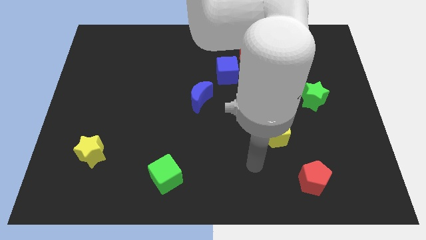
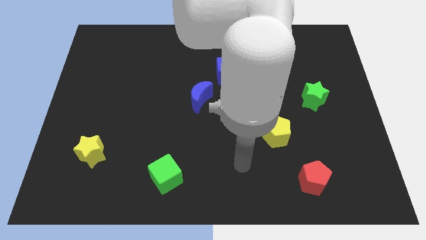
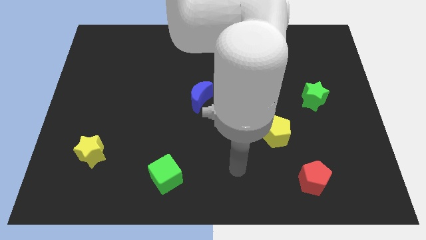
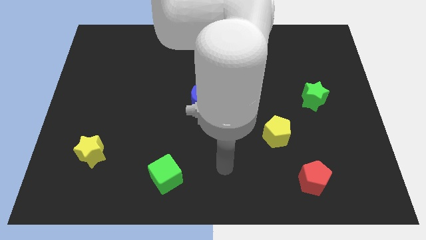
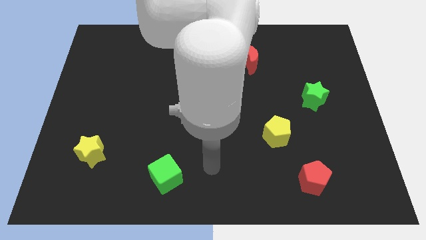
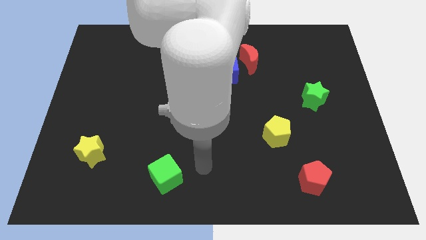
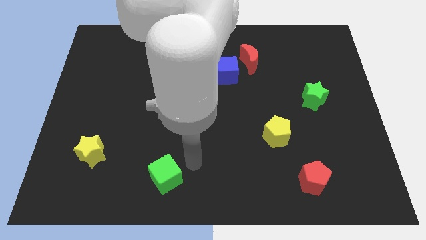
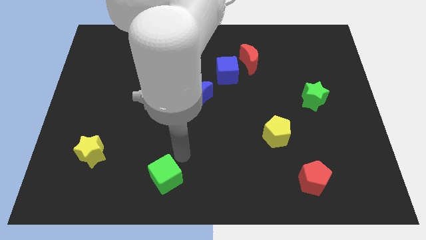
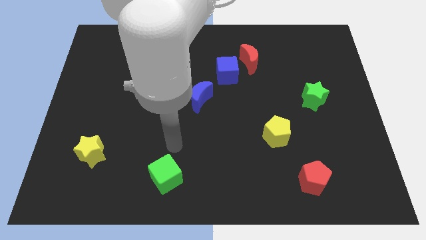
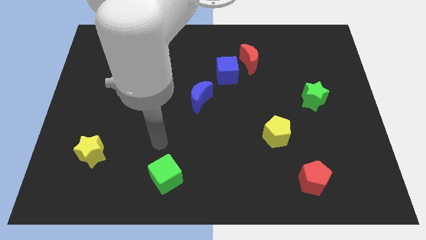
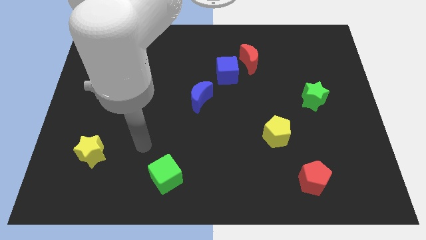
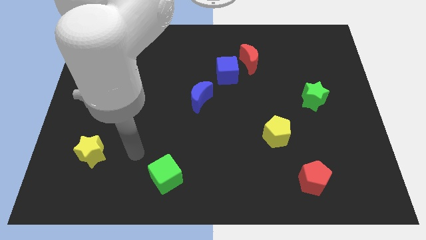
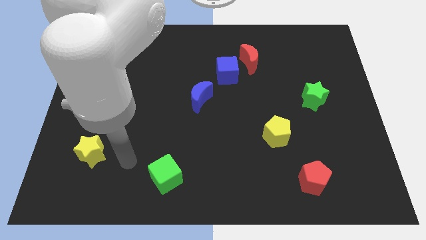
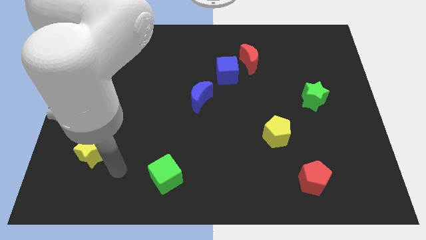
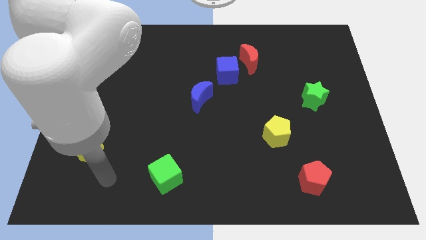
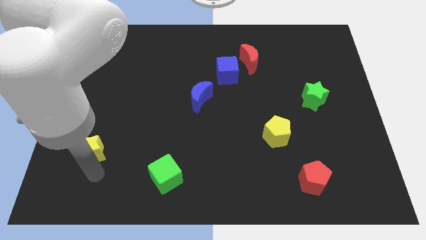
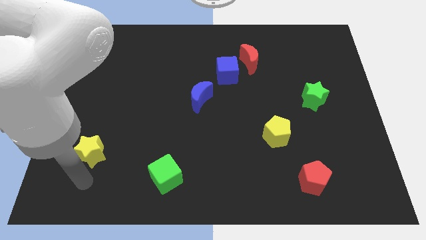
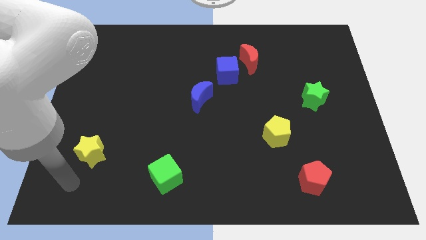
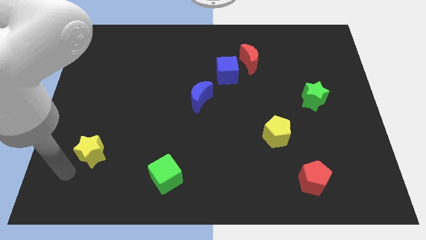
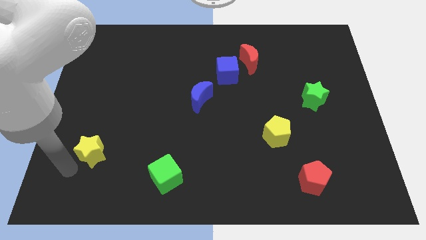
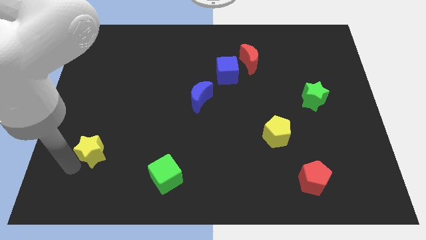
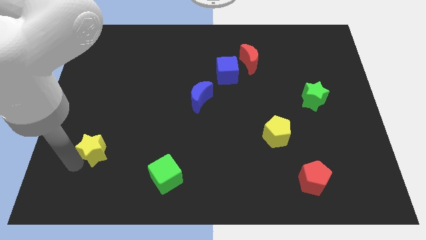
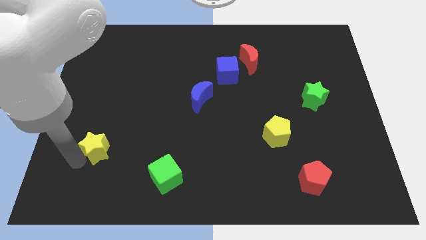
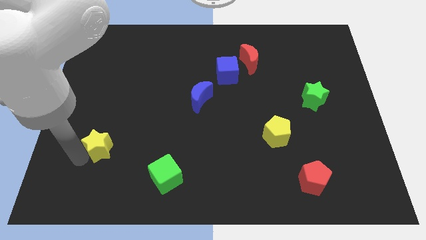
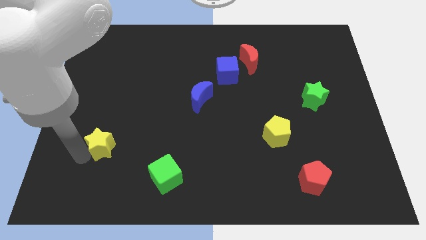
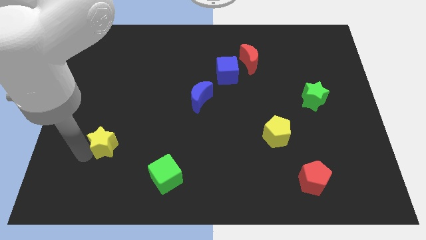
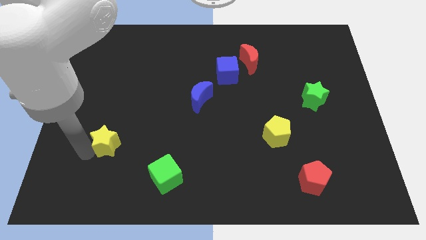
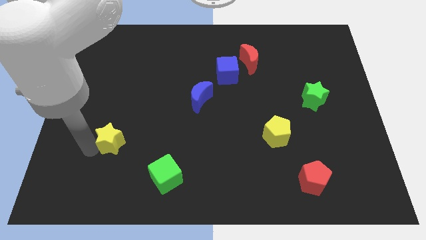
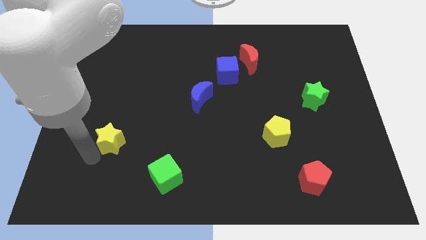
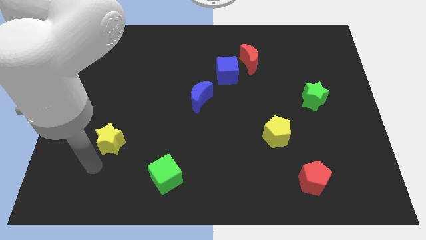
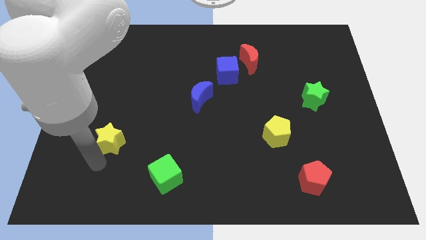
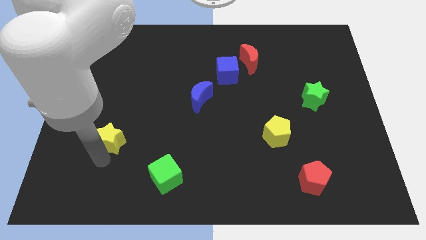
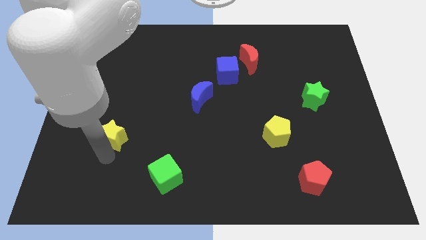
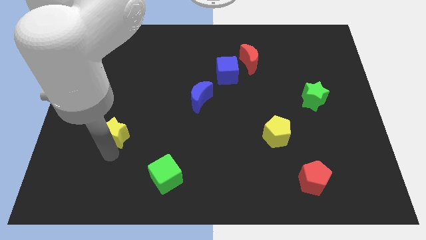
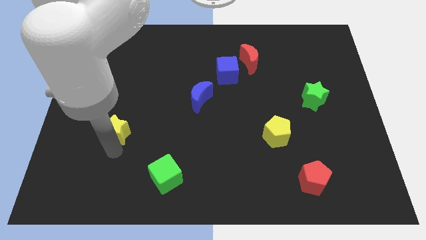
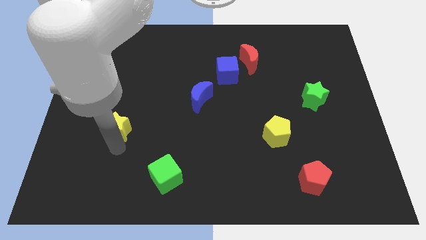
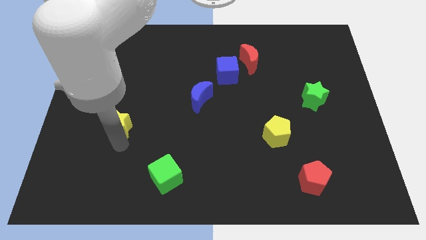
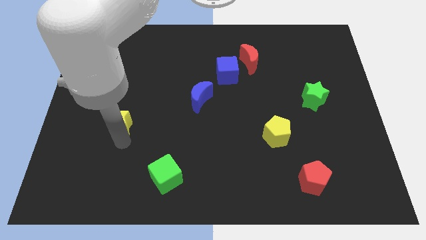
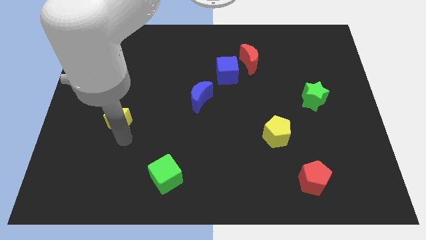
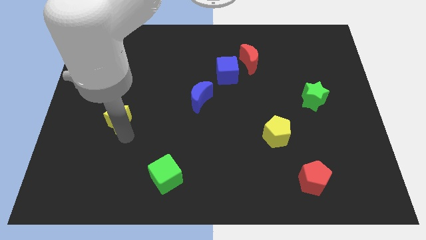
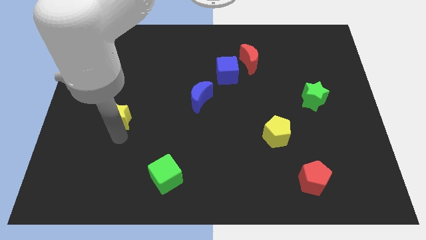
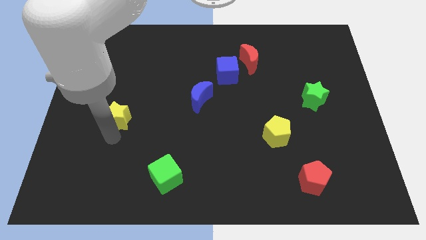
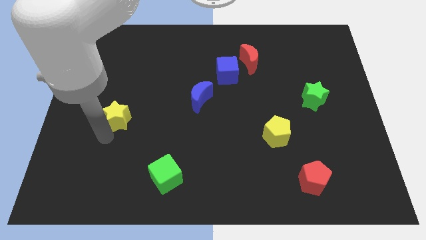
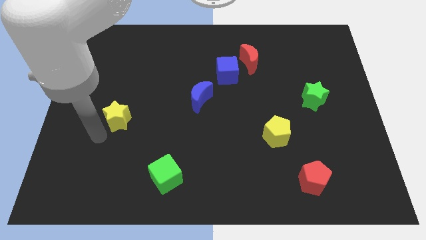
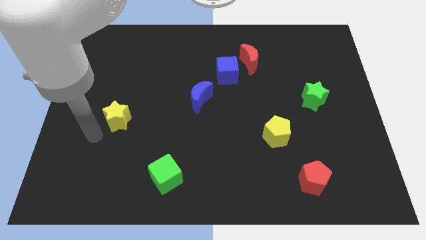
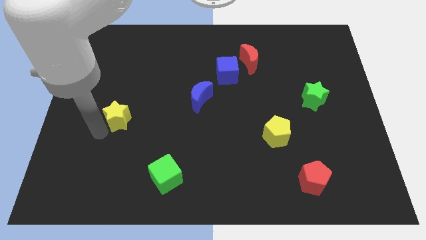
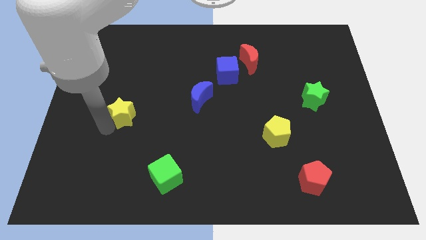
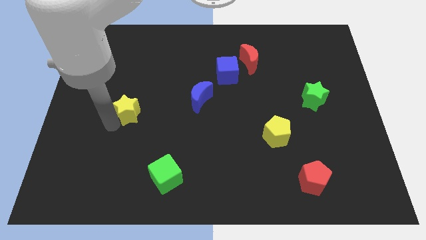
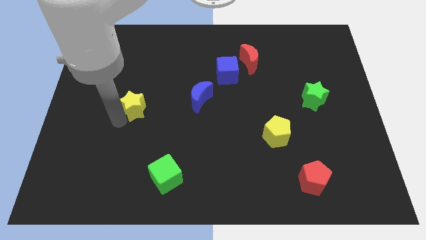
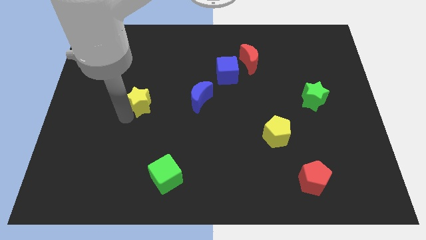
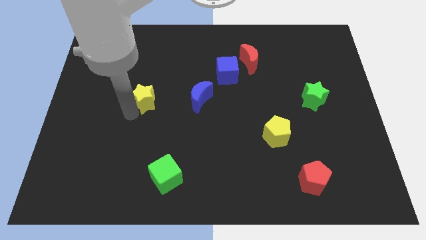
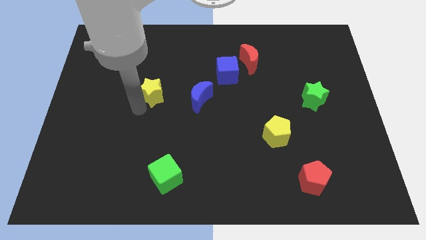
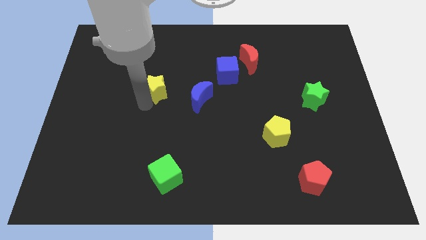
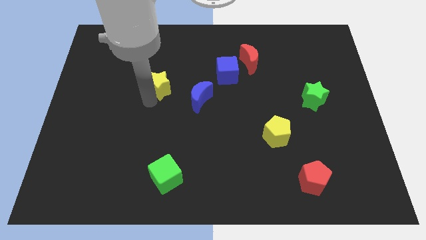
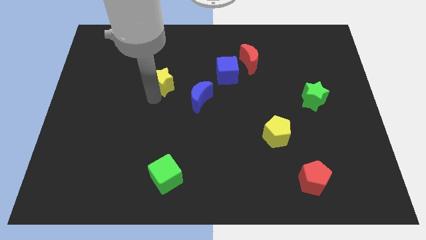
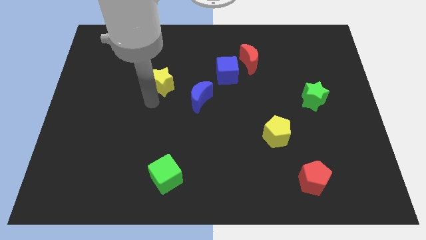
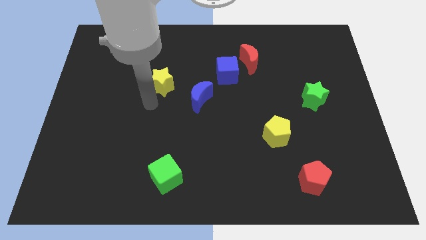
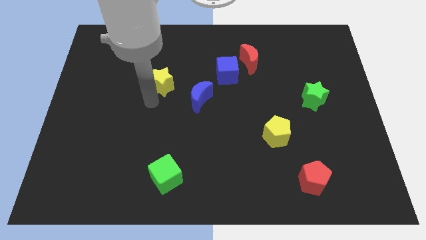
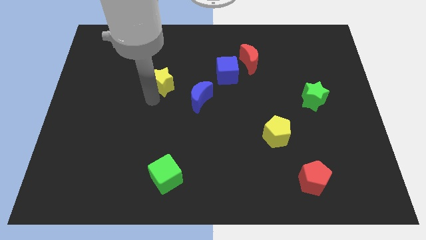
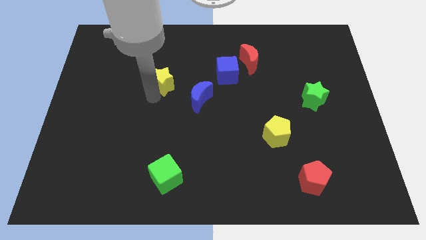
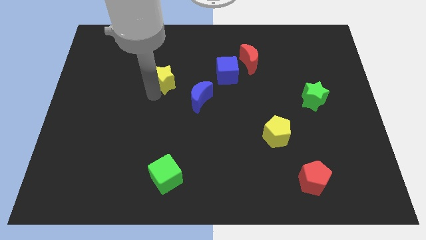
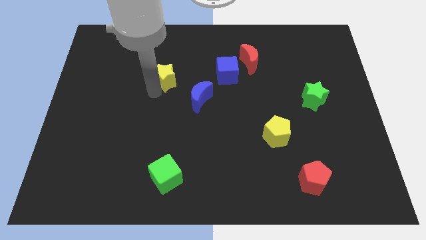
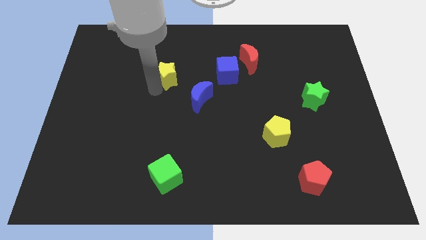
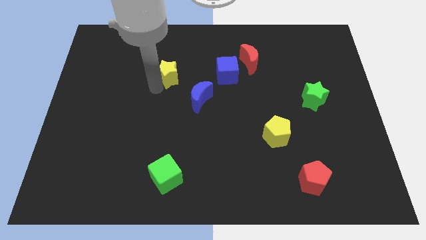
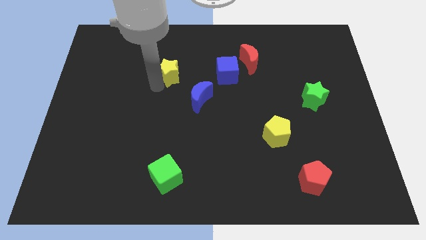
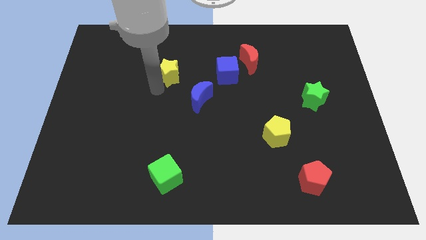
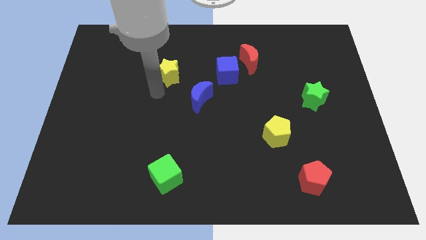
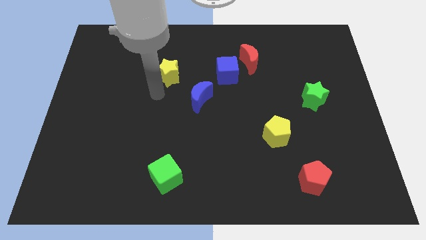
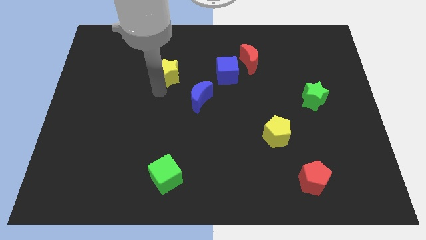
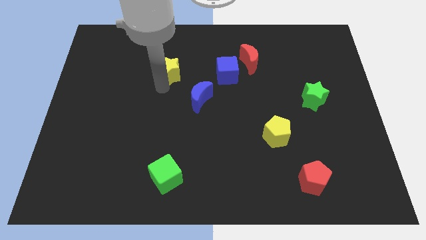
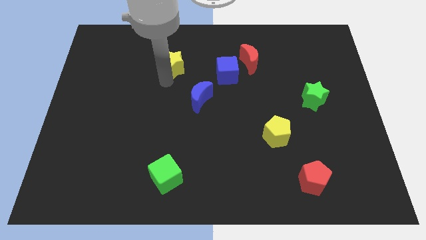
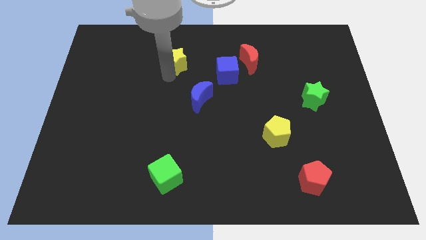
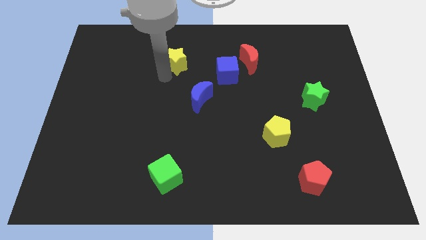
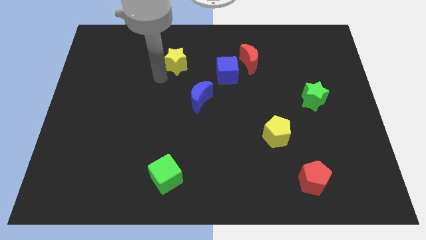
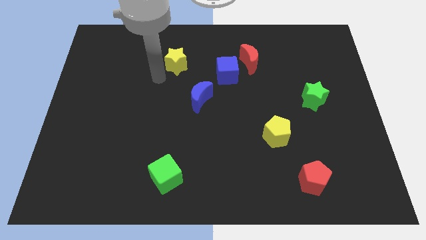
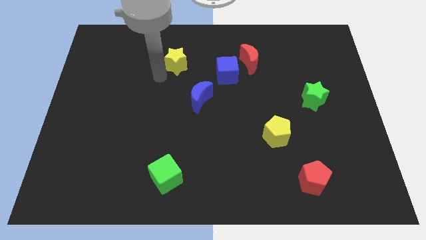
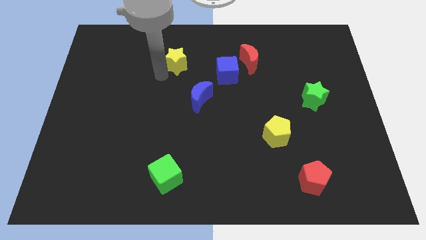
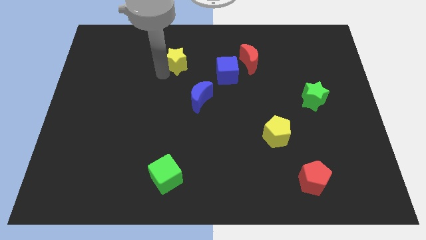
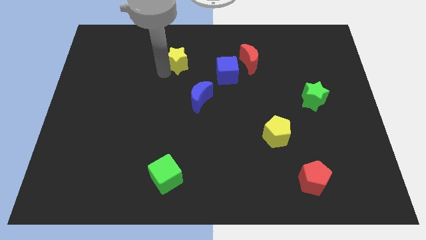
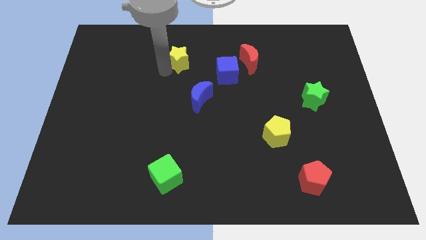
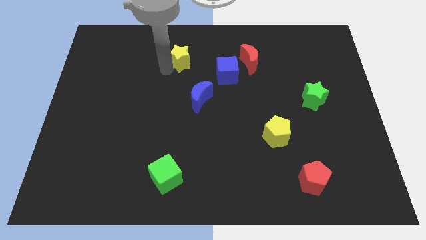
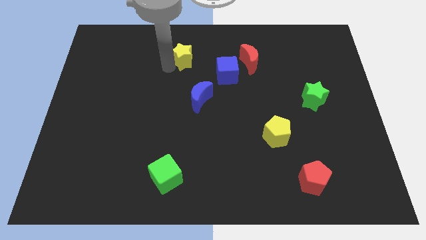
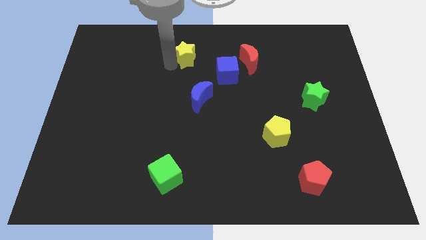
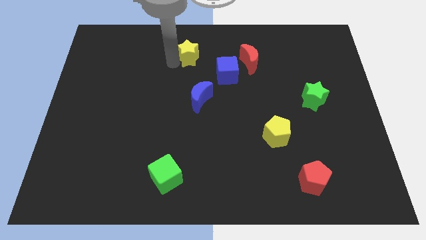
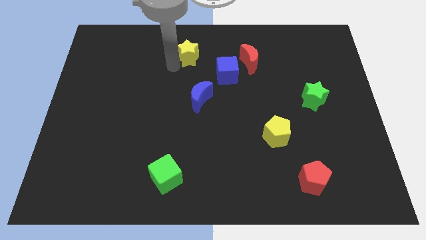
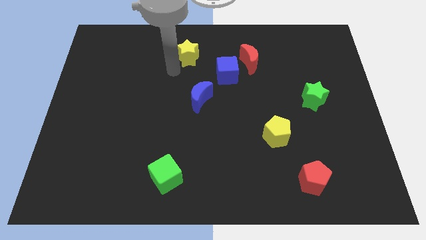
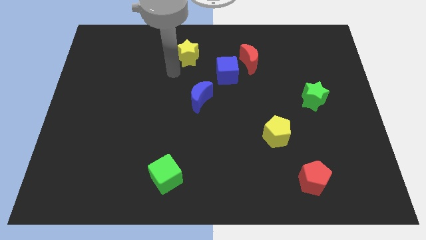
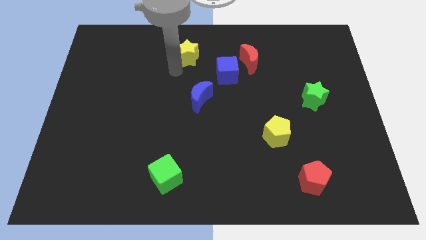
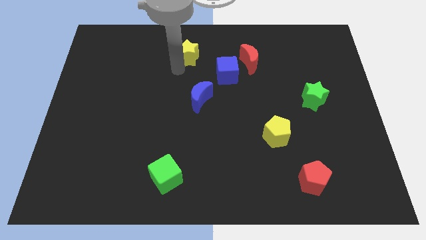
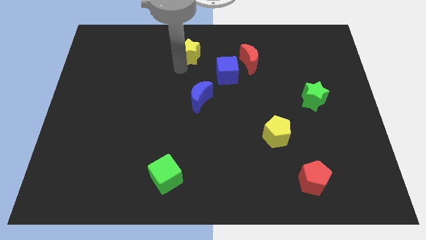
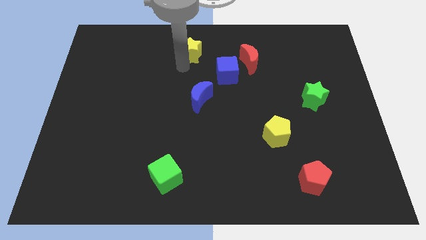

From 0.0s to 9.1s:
move the yellow star to the towards your base
